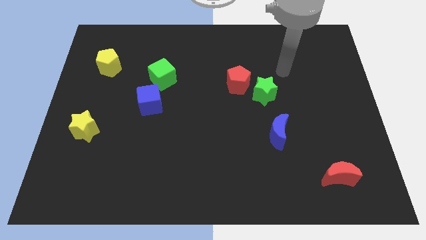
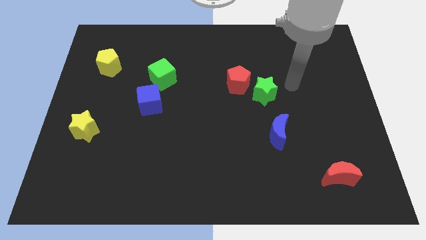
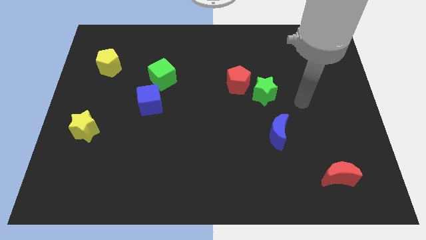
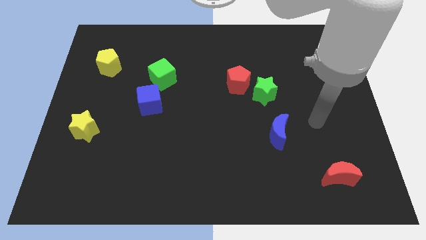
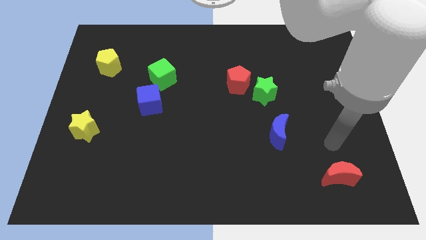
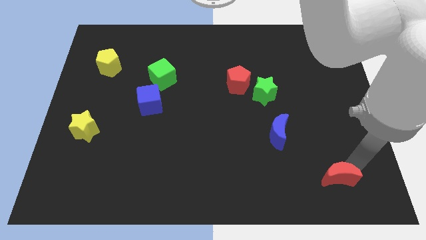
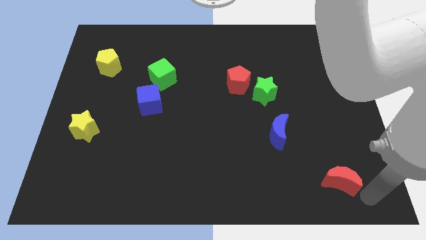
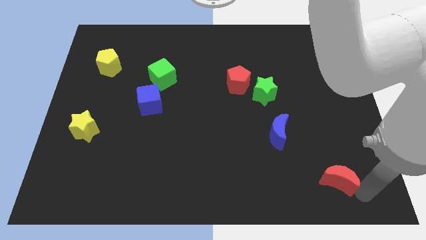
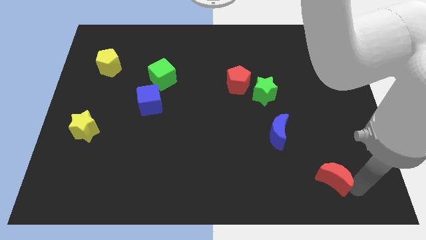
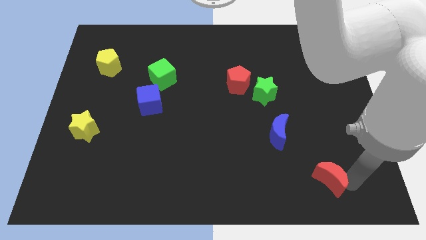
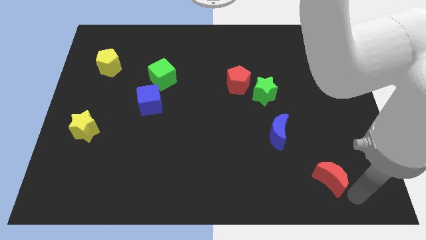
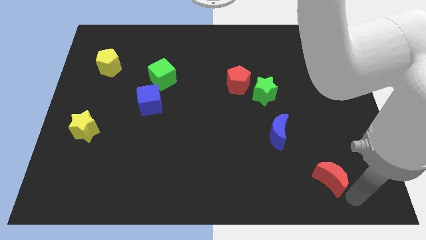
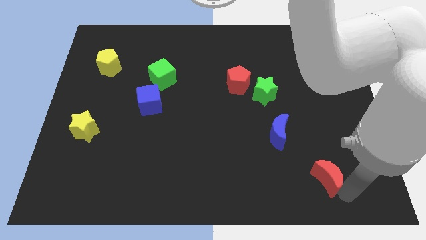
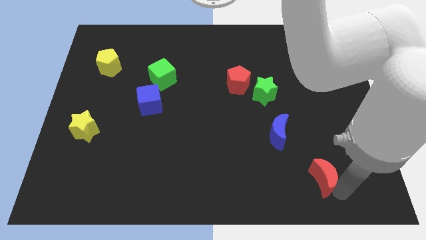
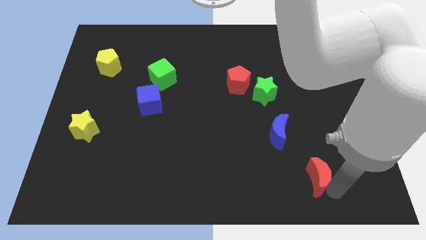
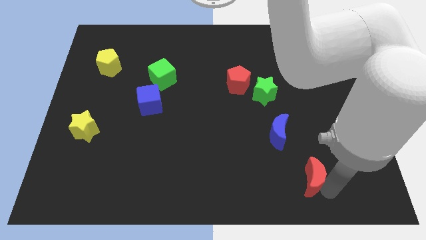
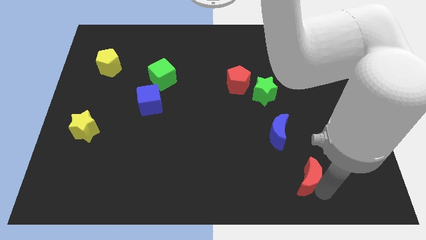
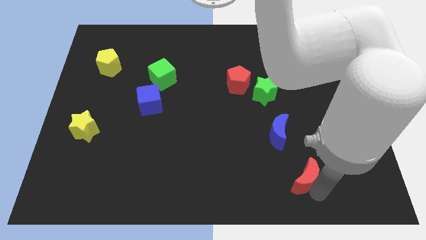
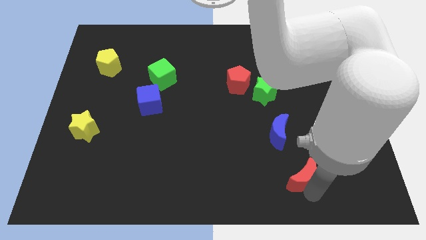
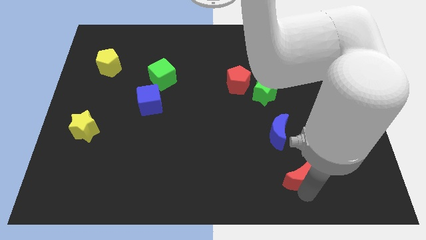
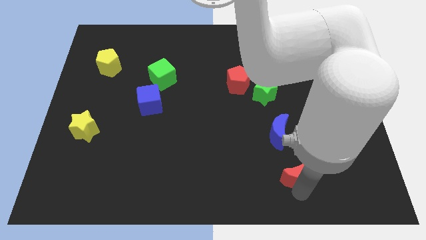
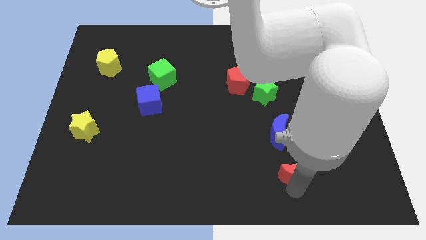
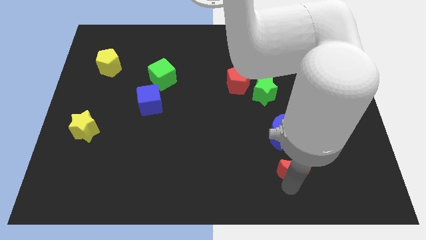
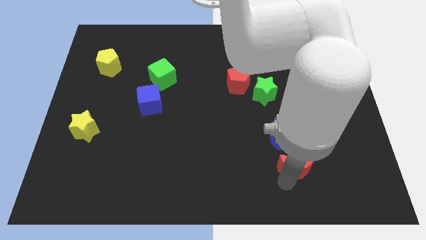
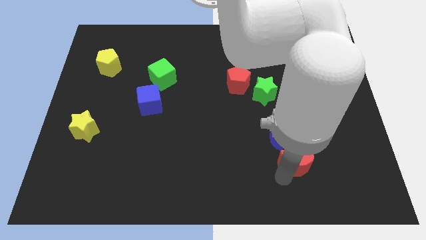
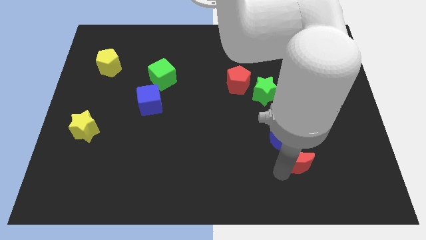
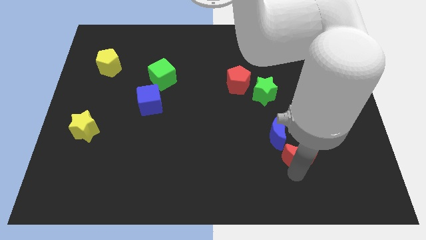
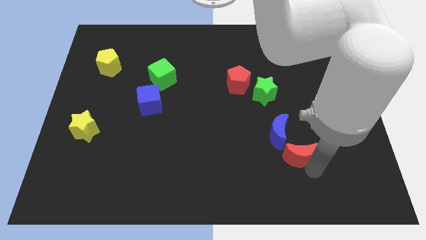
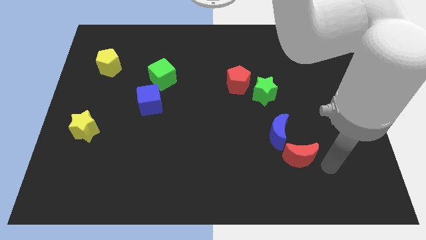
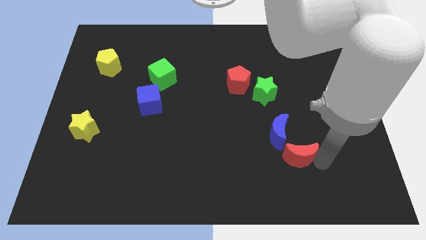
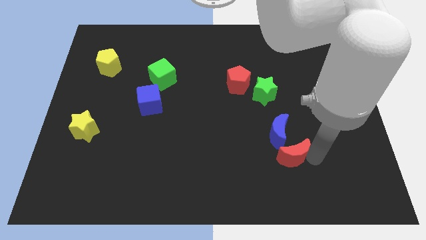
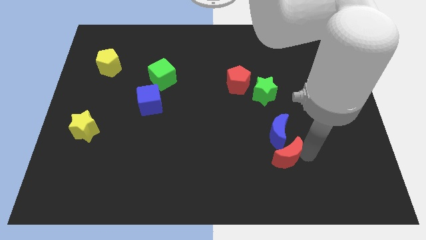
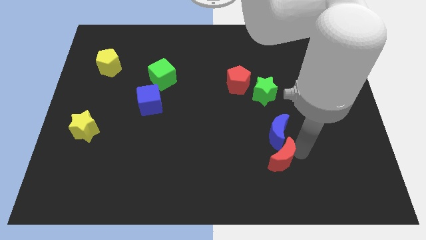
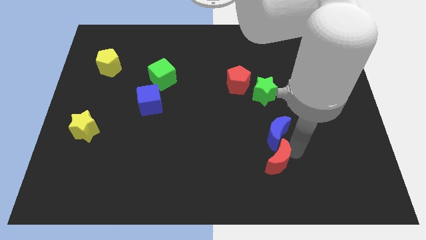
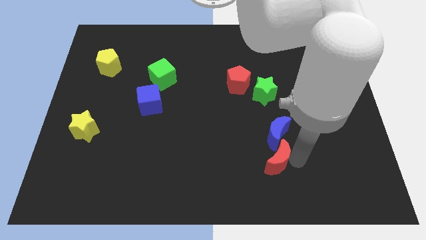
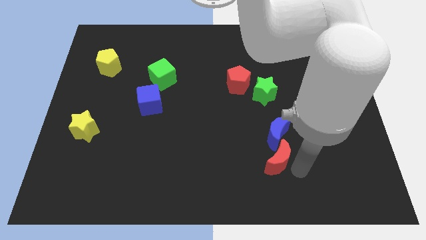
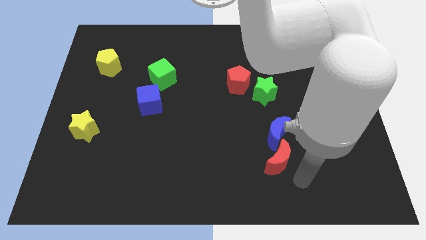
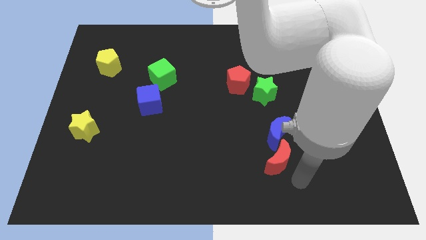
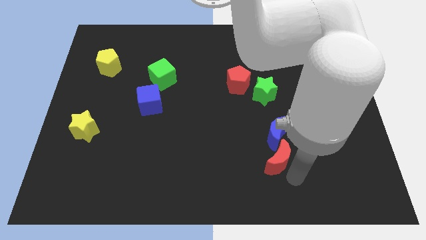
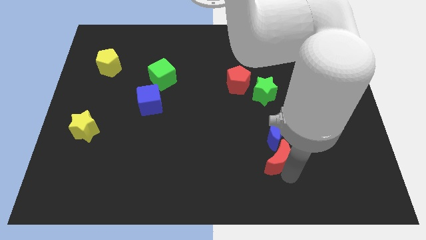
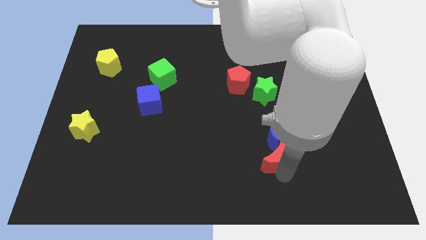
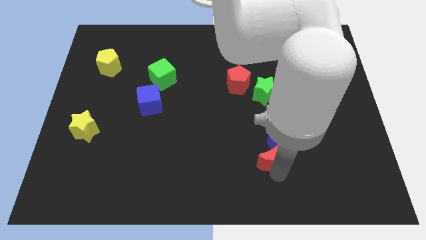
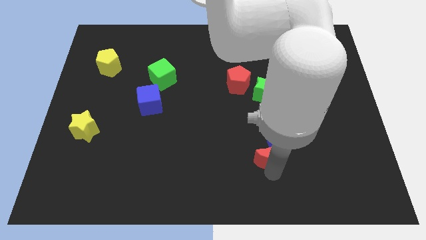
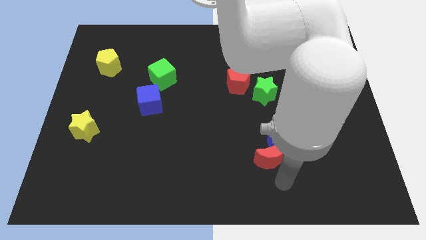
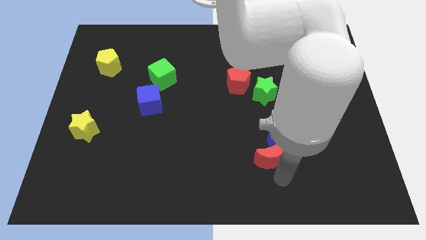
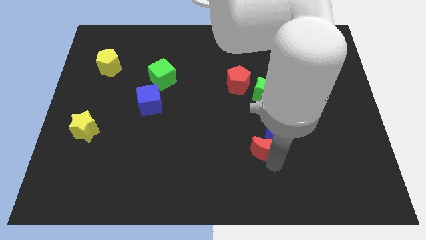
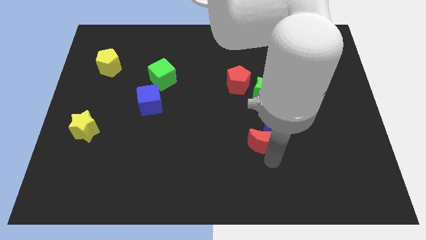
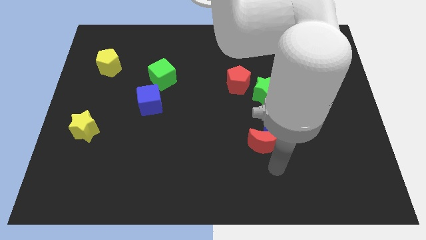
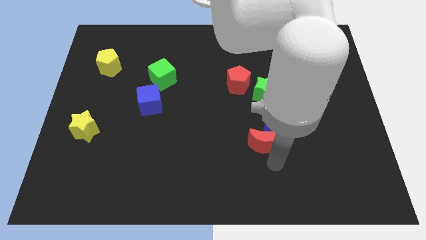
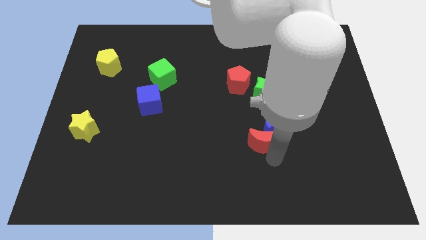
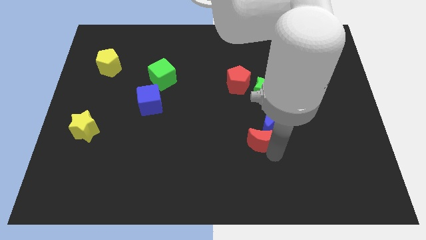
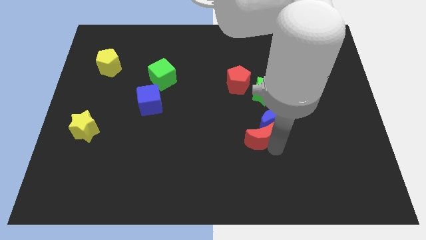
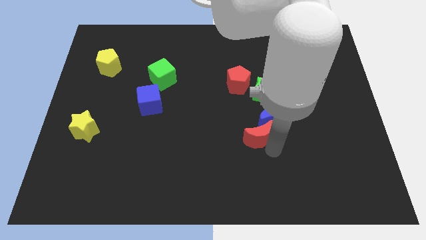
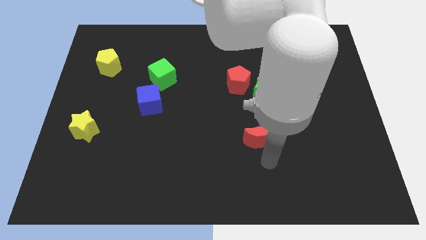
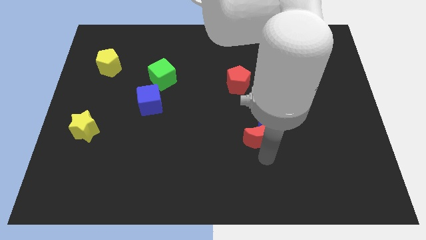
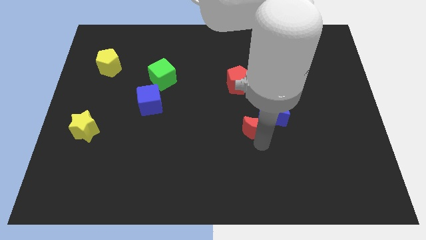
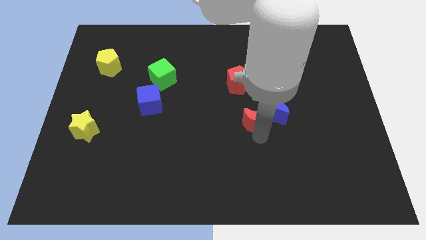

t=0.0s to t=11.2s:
push the red moon upwards and to the left

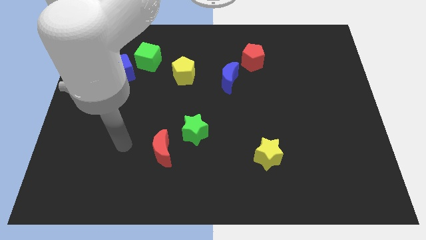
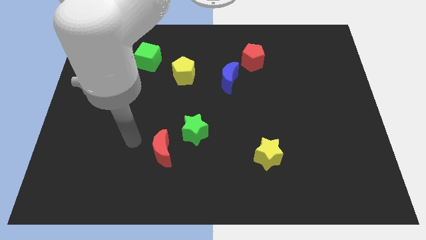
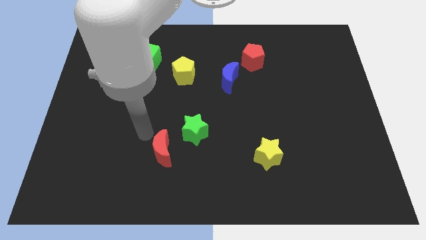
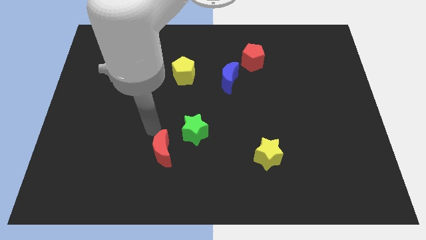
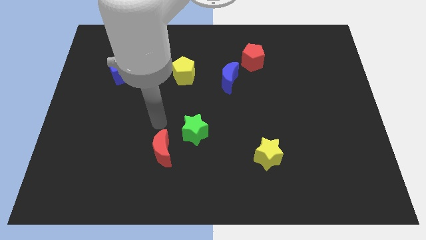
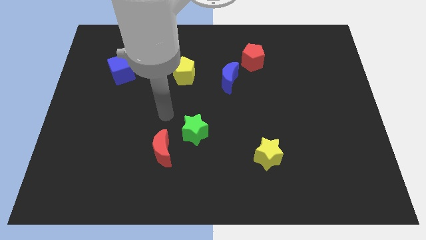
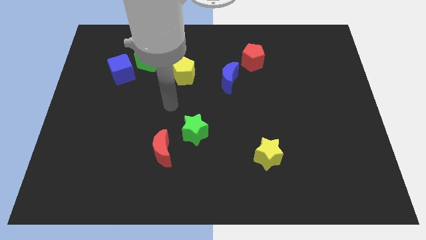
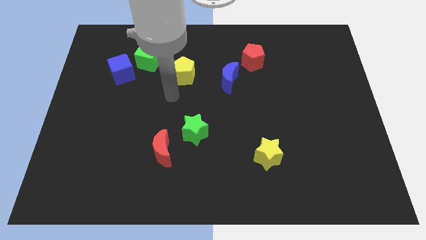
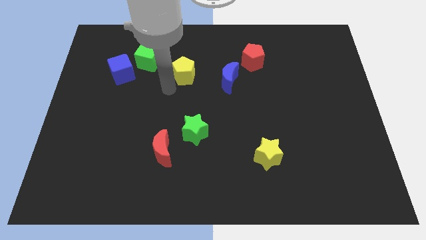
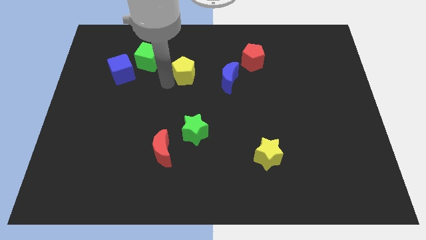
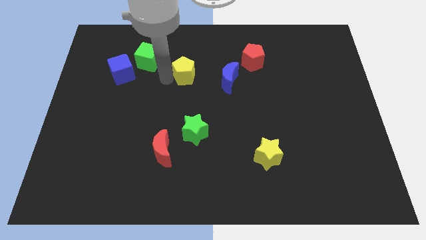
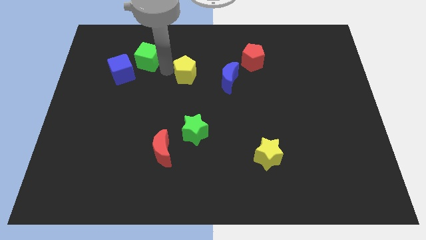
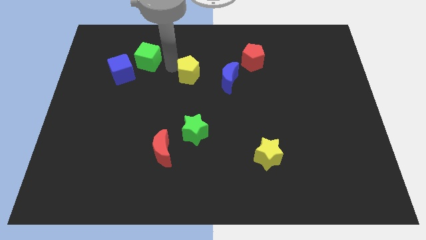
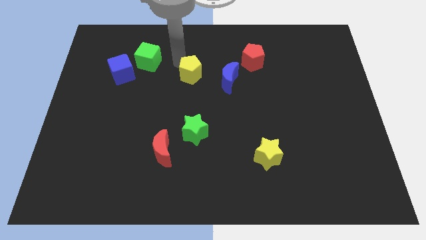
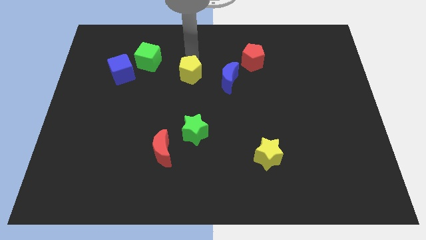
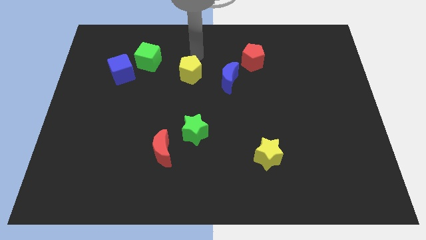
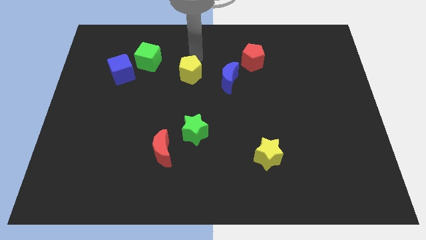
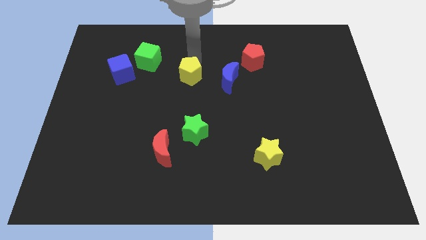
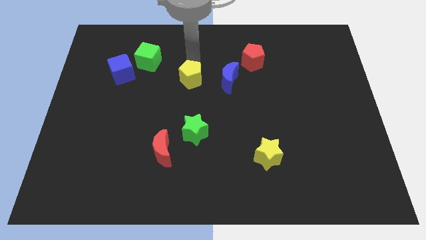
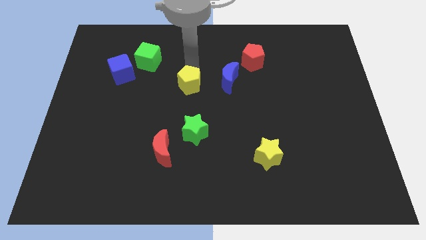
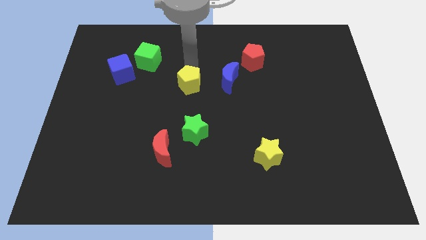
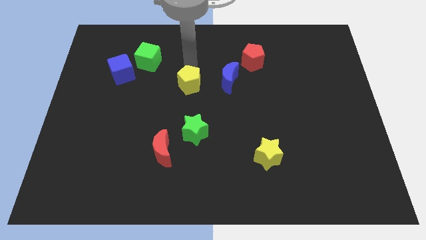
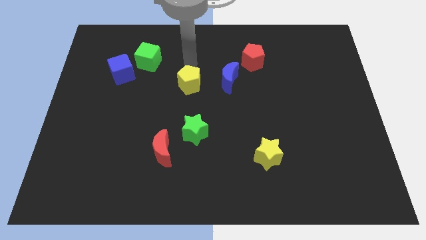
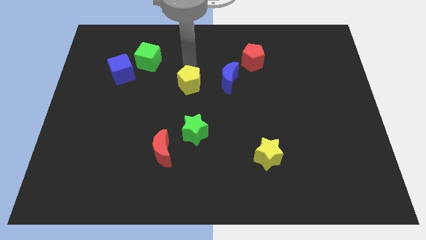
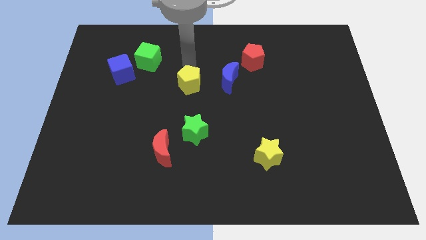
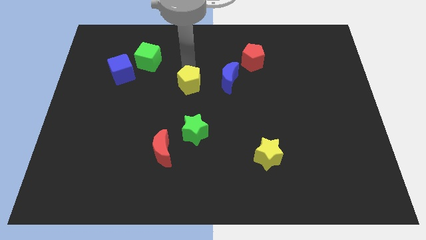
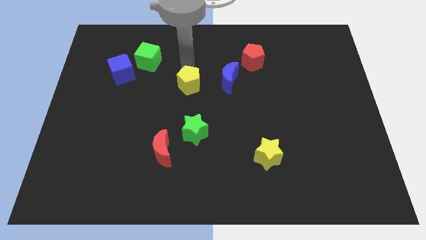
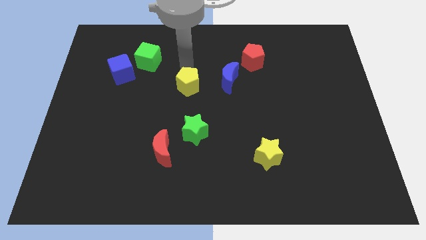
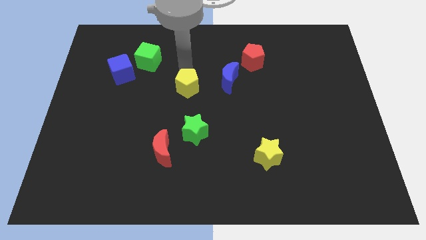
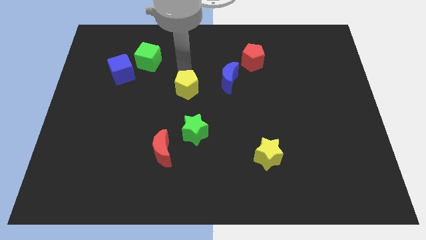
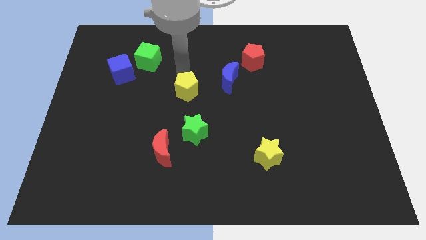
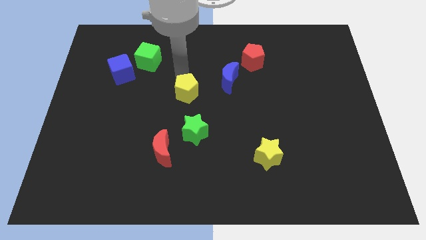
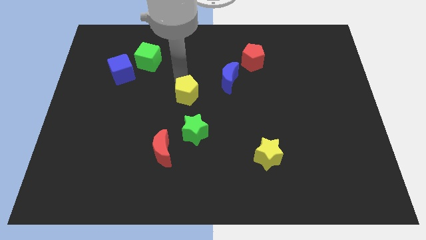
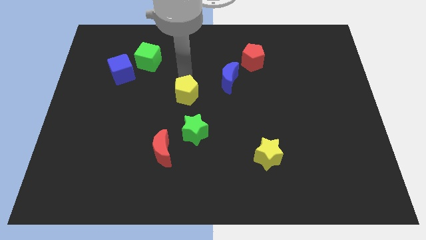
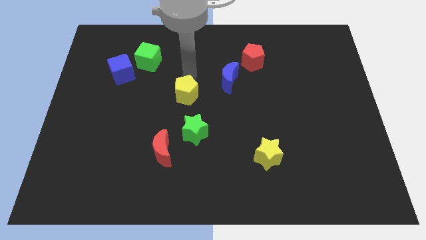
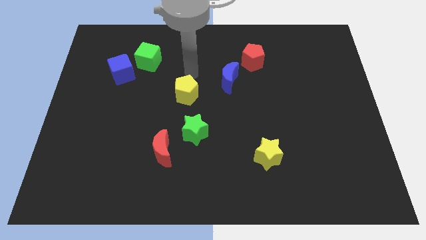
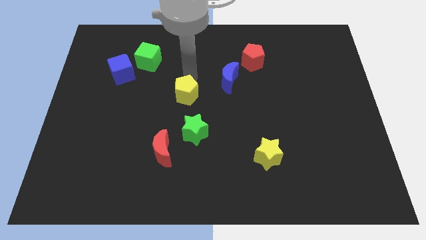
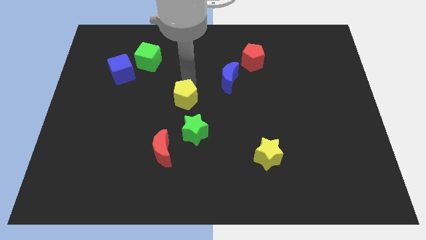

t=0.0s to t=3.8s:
move the yellow pentagon downwards a bit
